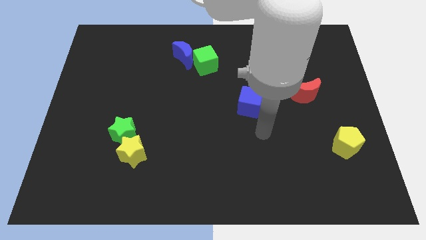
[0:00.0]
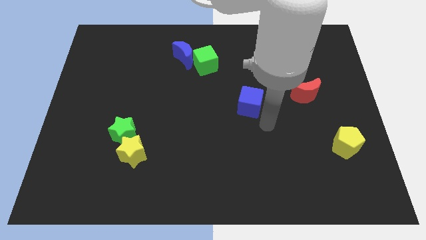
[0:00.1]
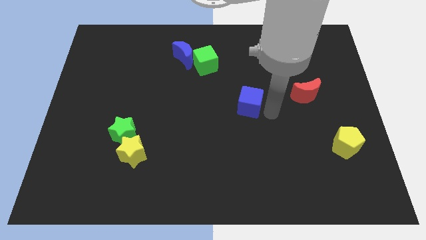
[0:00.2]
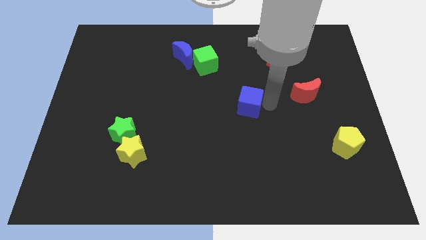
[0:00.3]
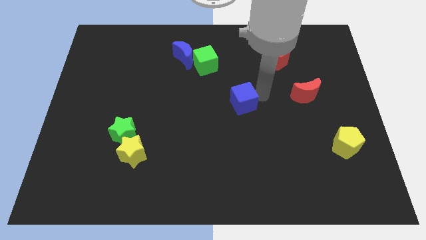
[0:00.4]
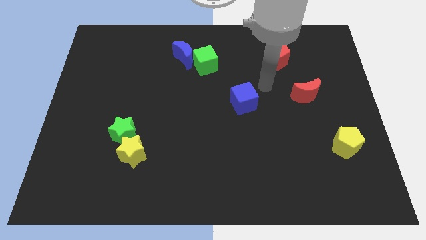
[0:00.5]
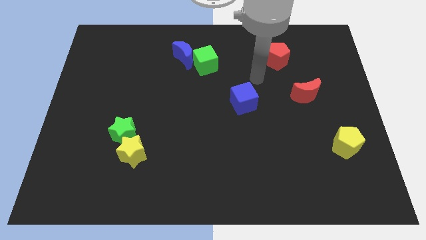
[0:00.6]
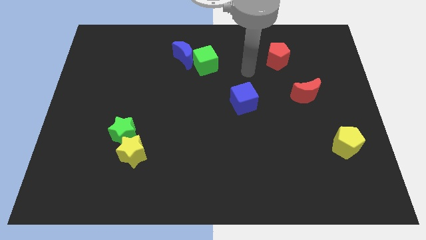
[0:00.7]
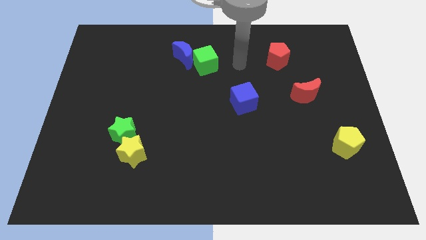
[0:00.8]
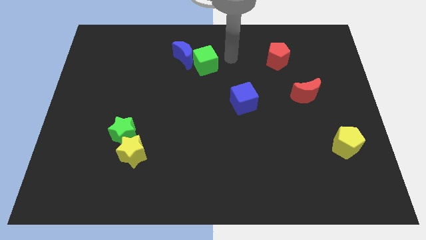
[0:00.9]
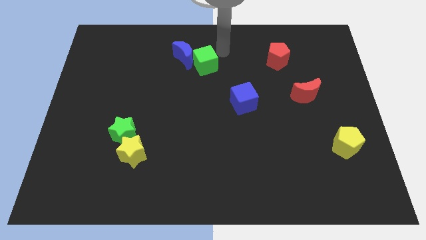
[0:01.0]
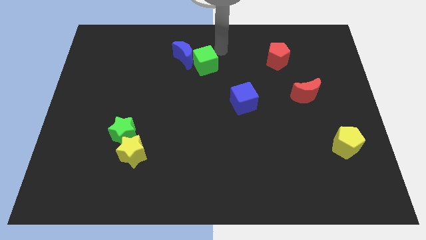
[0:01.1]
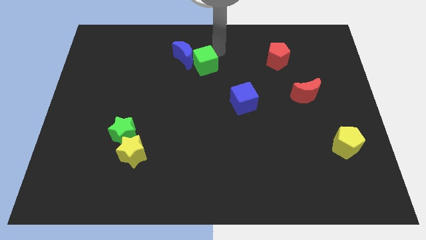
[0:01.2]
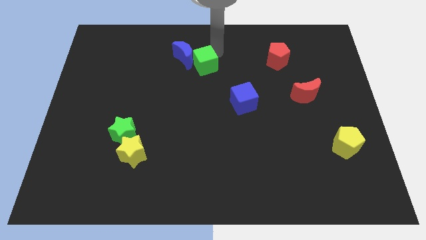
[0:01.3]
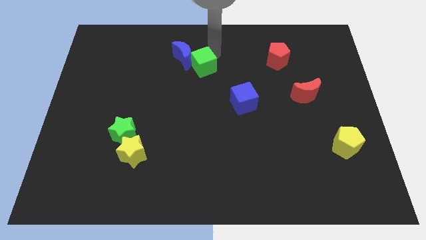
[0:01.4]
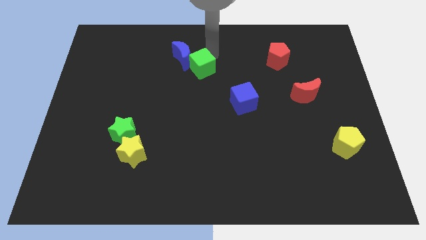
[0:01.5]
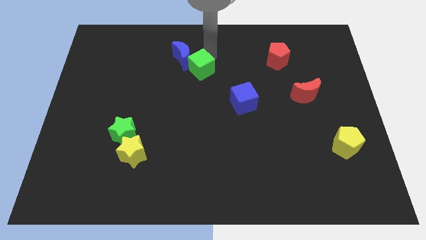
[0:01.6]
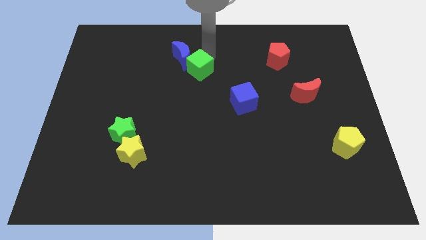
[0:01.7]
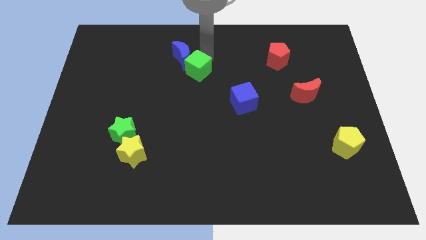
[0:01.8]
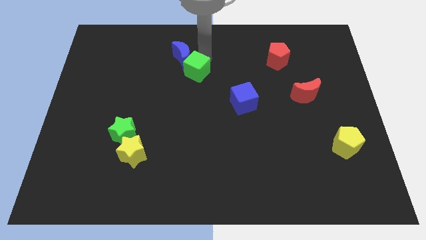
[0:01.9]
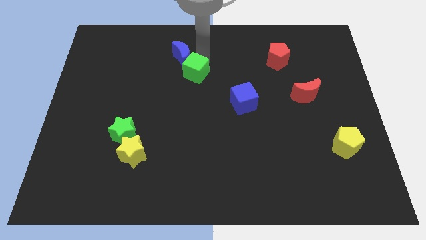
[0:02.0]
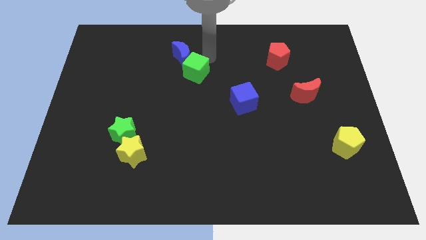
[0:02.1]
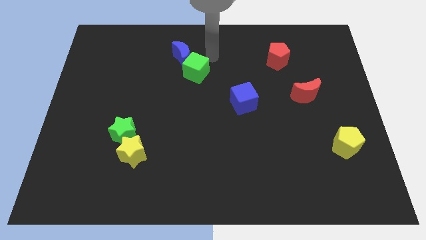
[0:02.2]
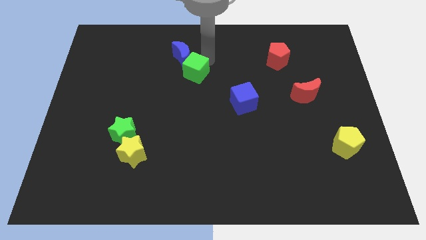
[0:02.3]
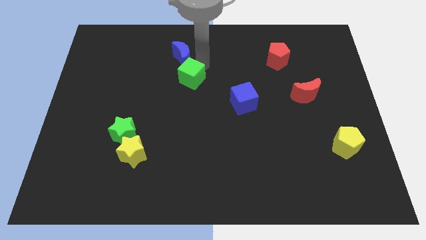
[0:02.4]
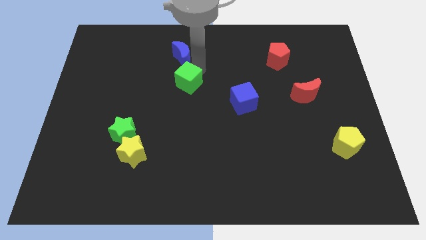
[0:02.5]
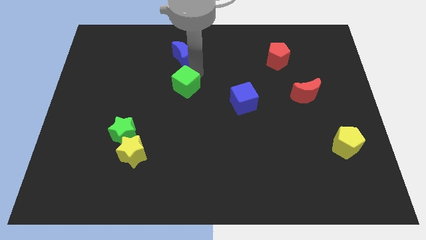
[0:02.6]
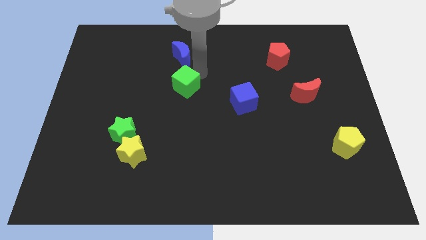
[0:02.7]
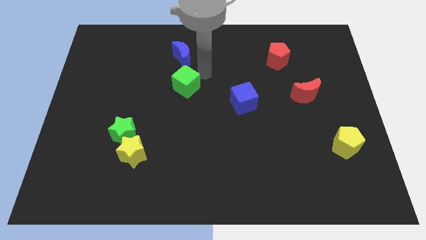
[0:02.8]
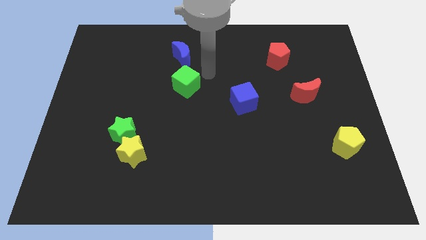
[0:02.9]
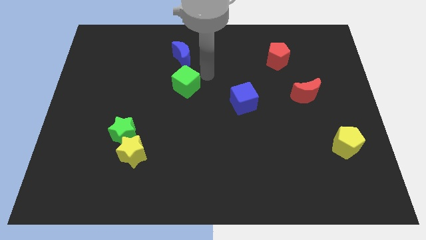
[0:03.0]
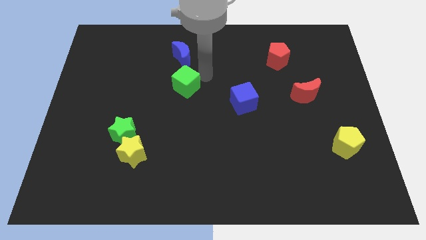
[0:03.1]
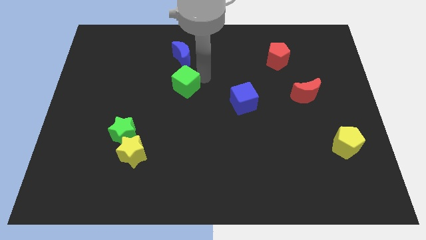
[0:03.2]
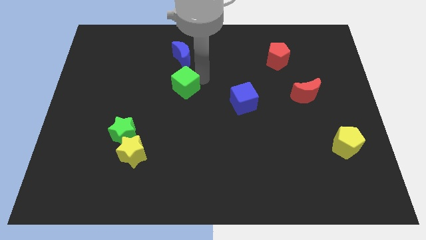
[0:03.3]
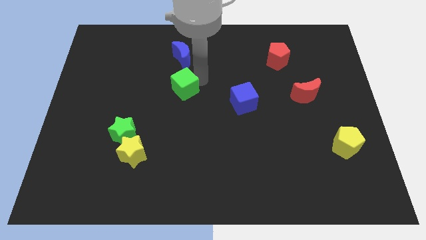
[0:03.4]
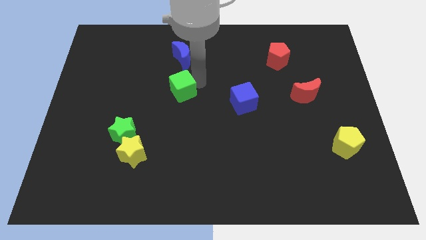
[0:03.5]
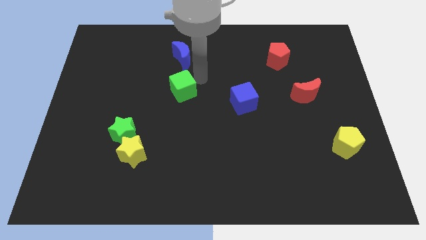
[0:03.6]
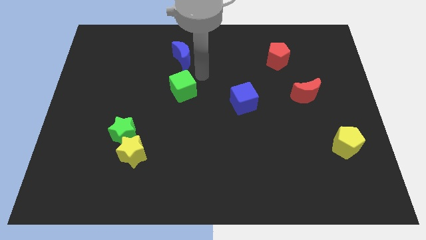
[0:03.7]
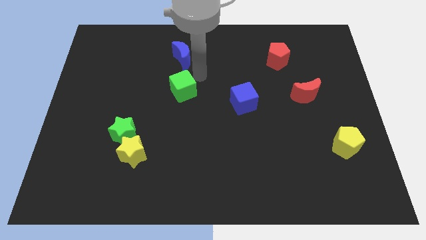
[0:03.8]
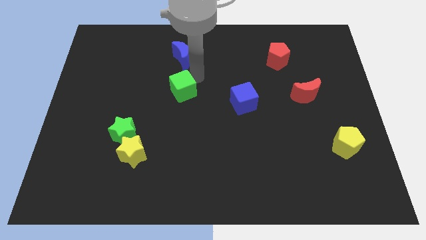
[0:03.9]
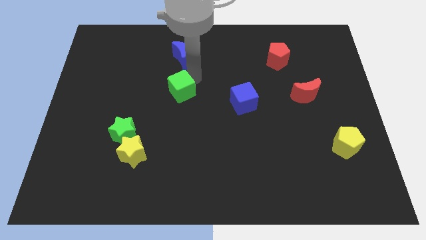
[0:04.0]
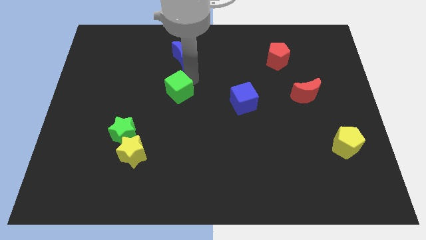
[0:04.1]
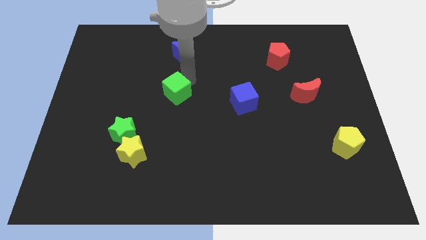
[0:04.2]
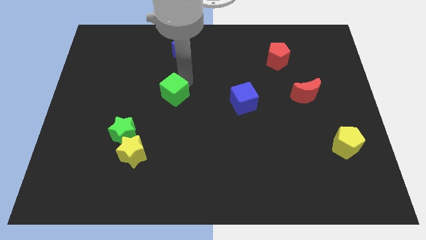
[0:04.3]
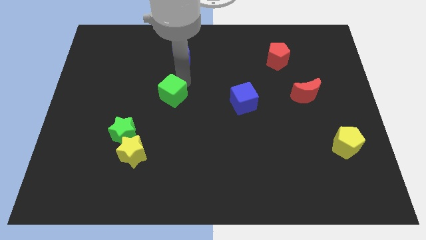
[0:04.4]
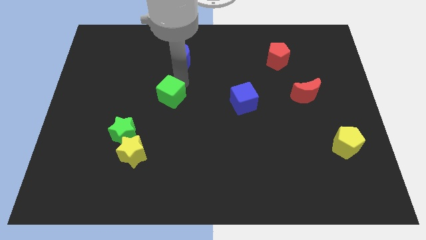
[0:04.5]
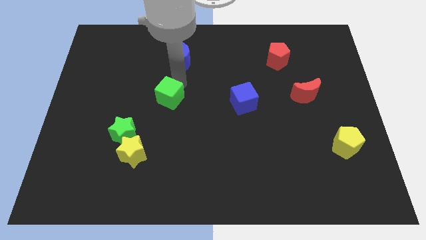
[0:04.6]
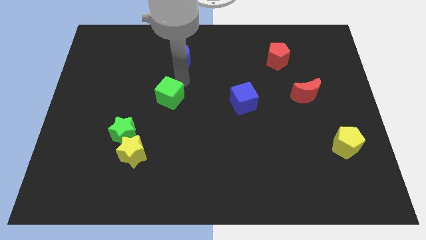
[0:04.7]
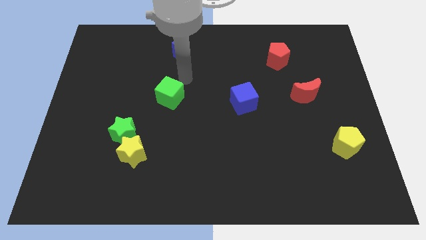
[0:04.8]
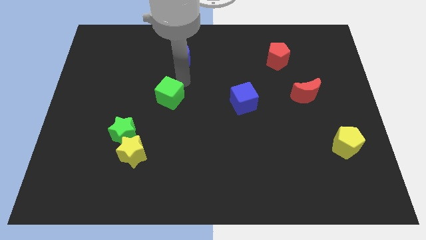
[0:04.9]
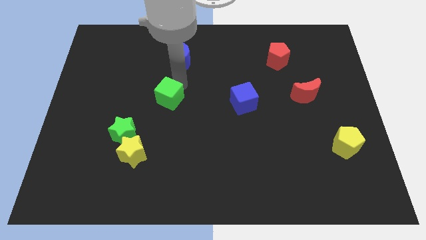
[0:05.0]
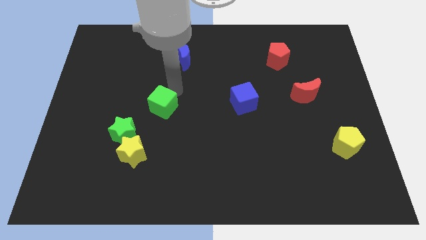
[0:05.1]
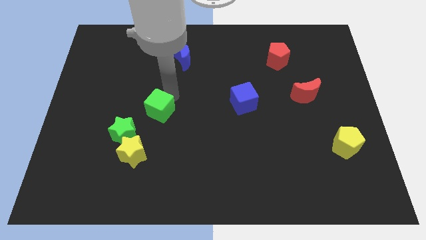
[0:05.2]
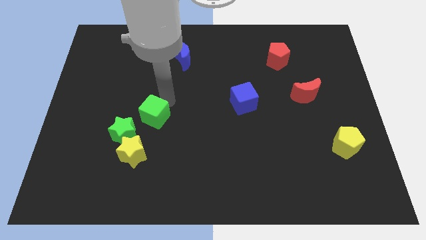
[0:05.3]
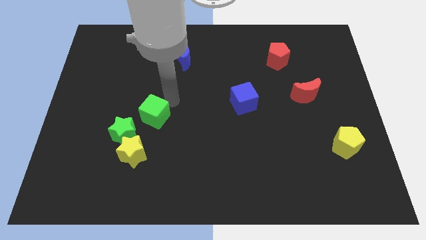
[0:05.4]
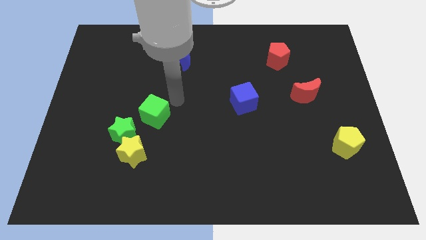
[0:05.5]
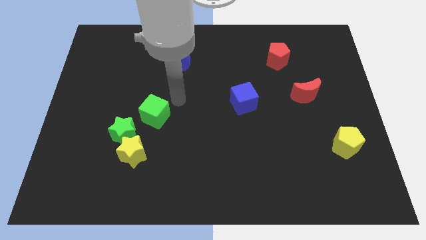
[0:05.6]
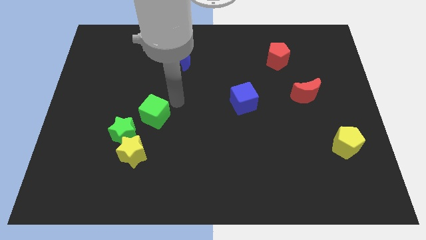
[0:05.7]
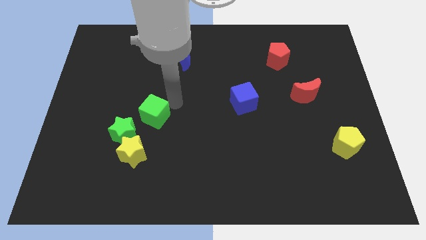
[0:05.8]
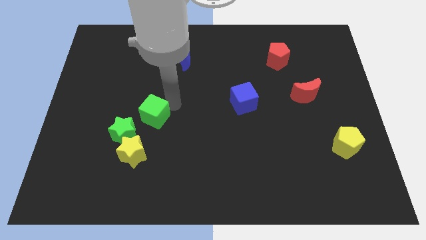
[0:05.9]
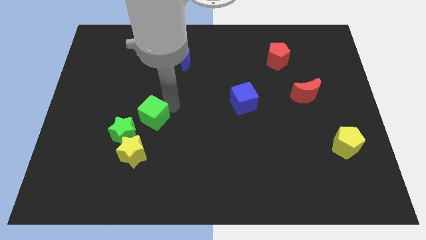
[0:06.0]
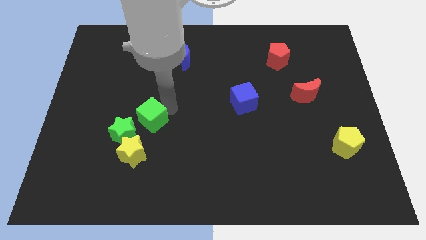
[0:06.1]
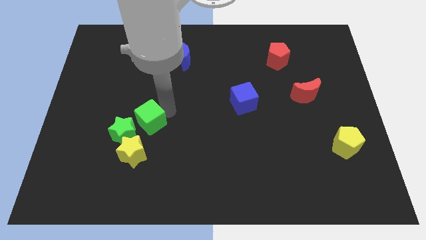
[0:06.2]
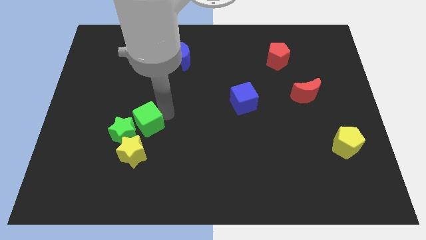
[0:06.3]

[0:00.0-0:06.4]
put the green cube close to the green star

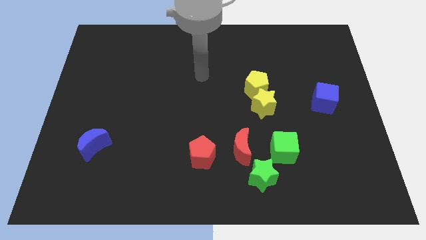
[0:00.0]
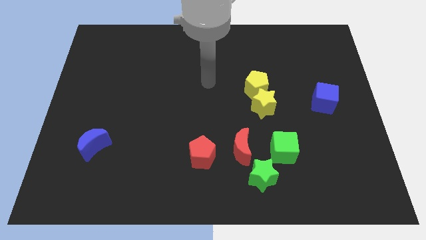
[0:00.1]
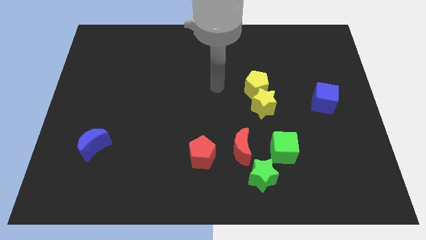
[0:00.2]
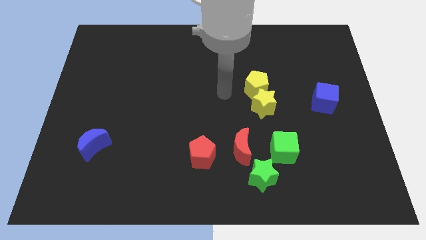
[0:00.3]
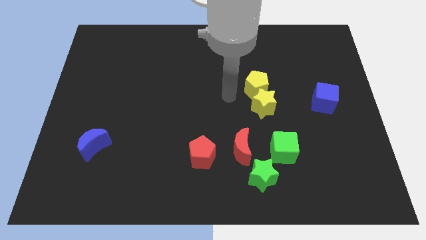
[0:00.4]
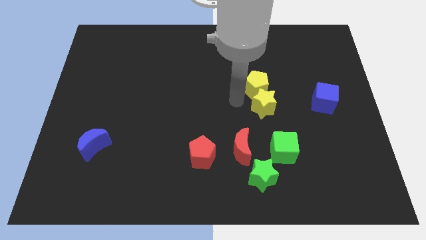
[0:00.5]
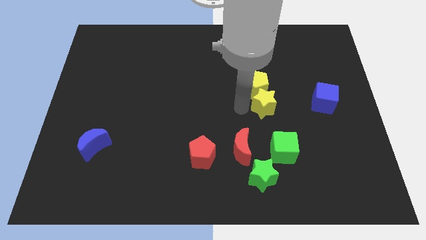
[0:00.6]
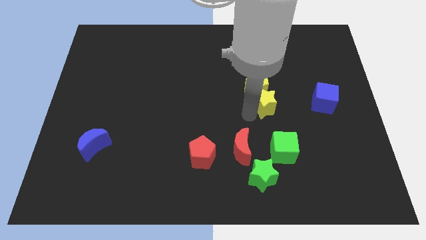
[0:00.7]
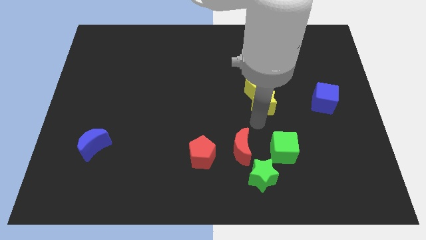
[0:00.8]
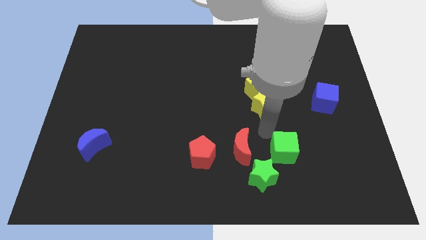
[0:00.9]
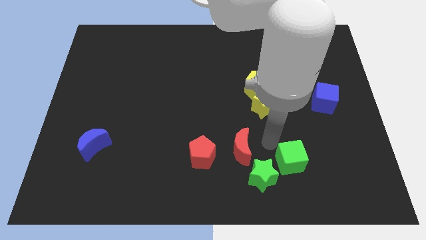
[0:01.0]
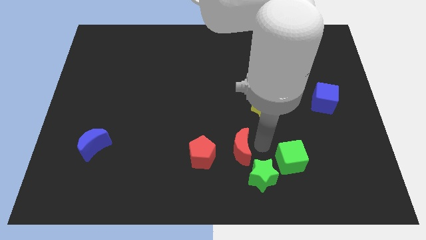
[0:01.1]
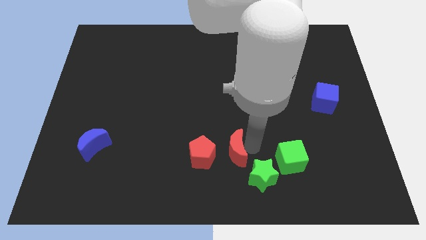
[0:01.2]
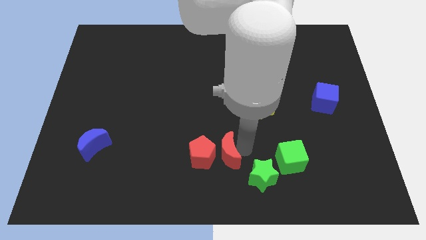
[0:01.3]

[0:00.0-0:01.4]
move the red moon to the red pentagon
